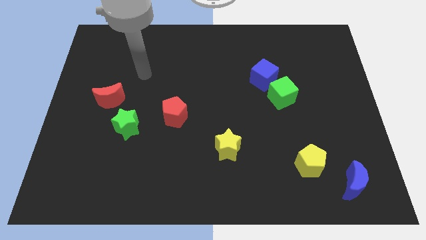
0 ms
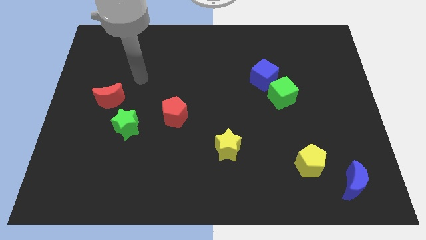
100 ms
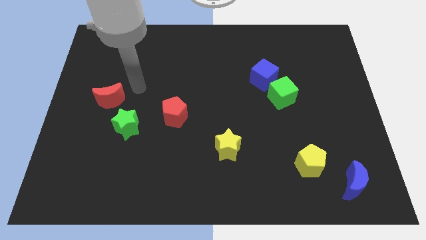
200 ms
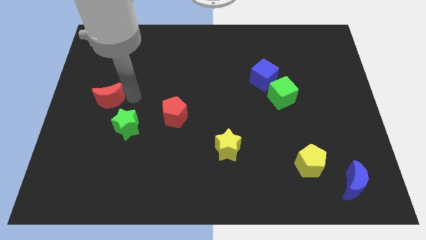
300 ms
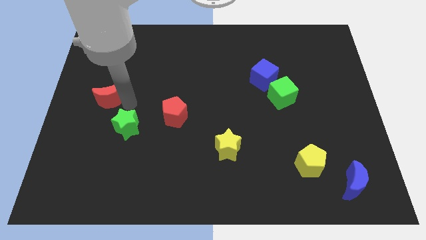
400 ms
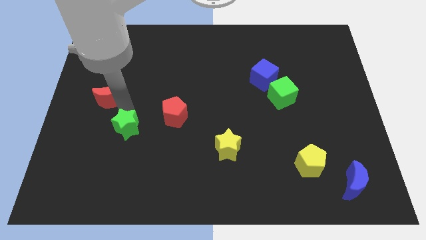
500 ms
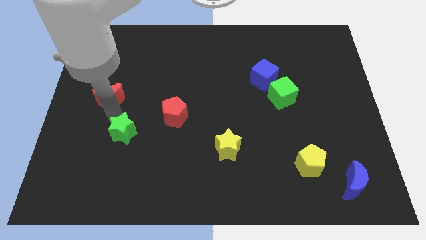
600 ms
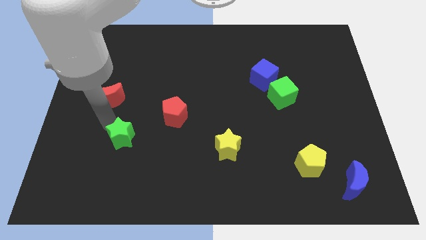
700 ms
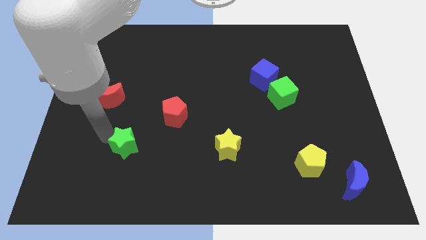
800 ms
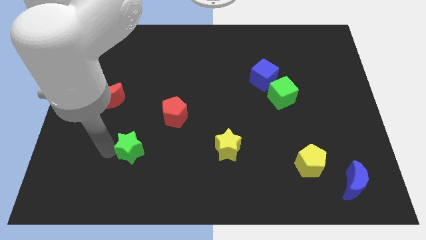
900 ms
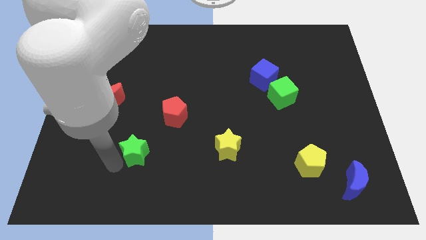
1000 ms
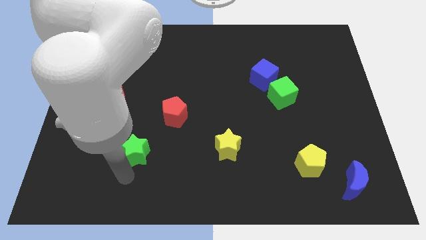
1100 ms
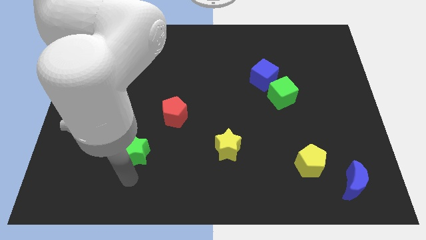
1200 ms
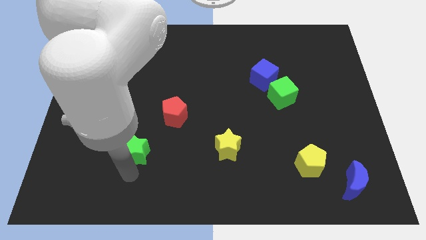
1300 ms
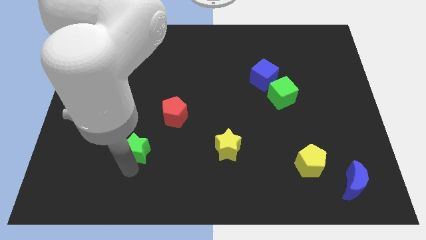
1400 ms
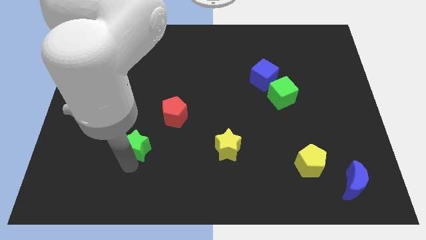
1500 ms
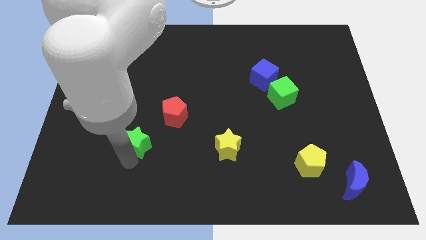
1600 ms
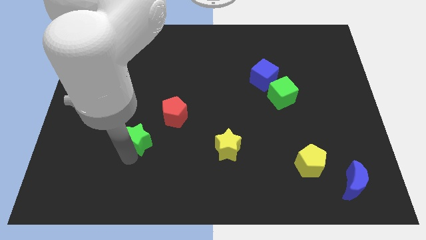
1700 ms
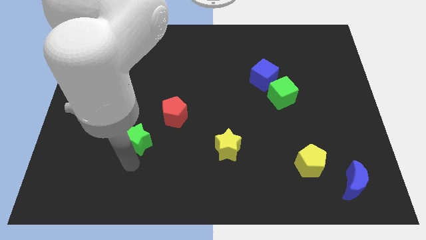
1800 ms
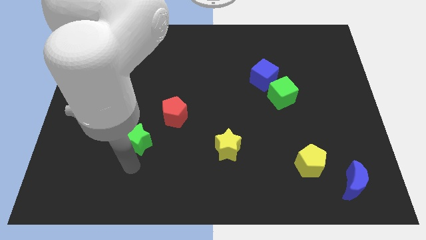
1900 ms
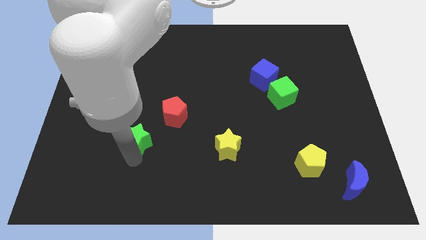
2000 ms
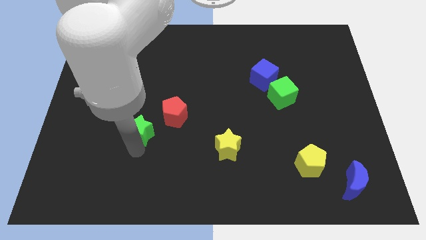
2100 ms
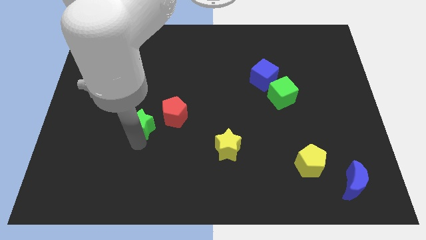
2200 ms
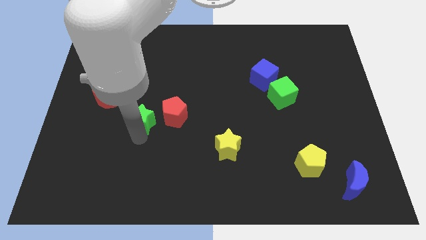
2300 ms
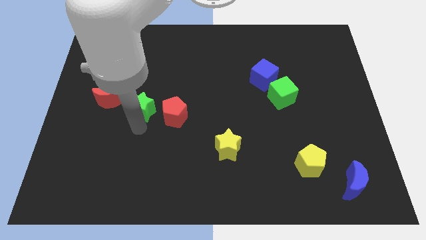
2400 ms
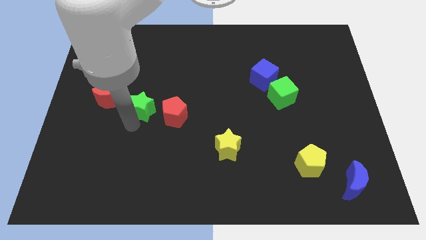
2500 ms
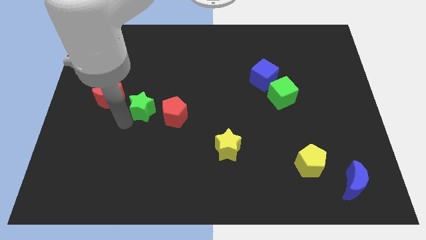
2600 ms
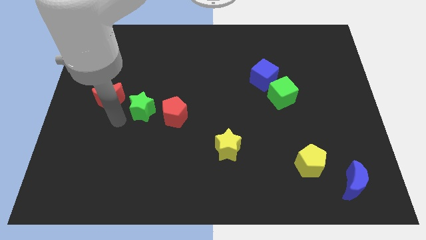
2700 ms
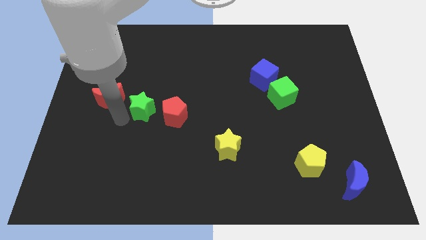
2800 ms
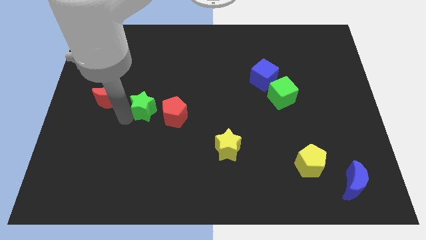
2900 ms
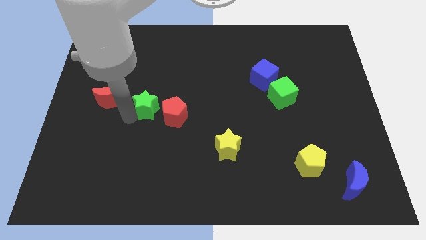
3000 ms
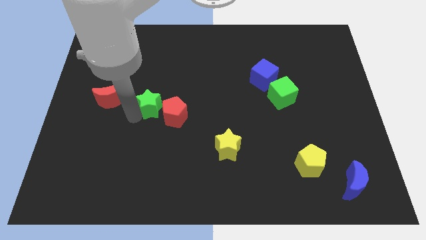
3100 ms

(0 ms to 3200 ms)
slightly move the green star up and then right

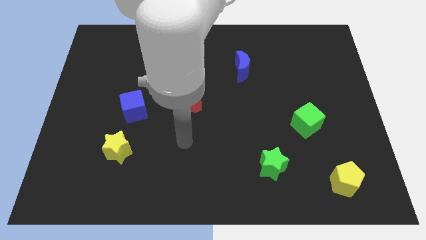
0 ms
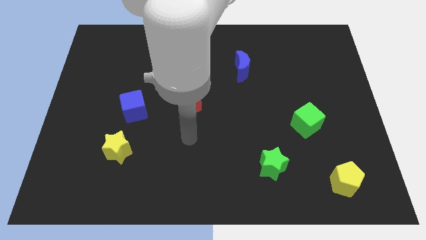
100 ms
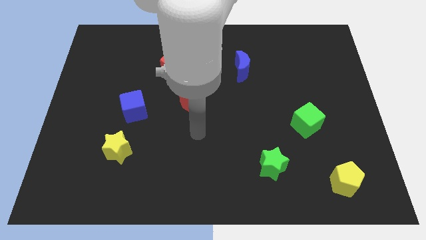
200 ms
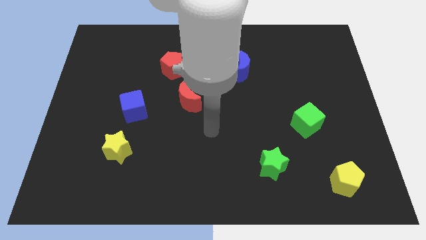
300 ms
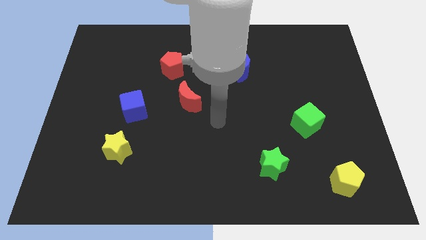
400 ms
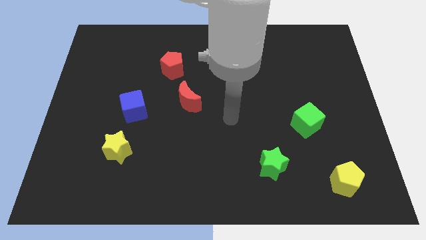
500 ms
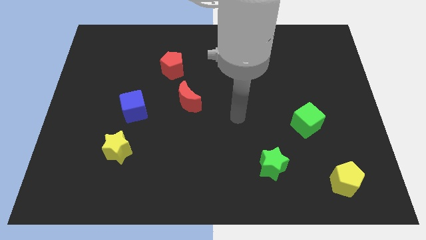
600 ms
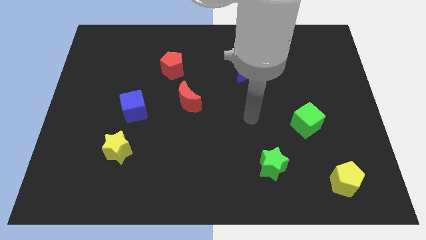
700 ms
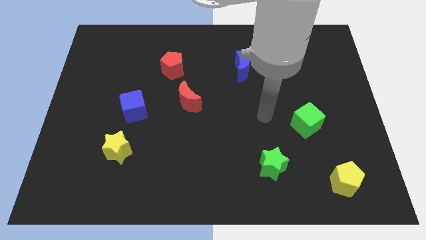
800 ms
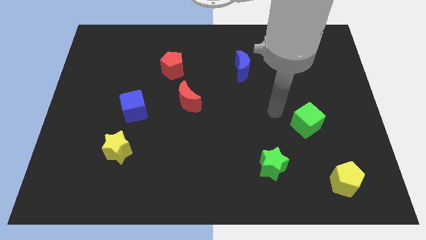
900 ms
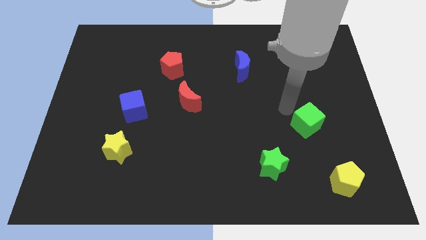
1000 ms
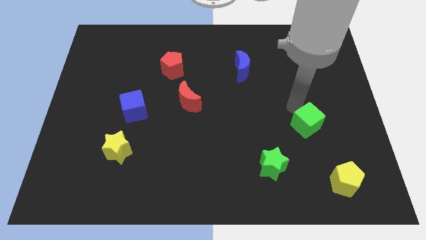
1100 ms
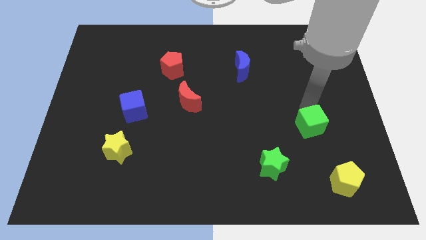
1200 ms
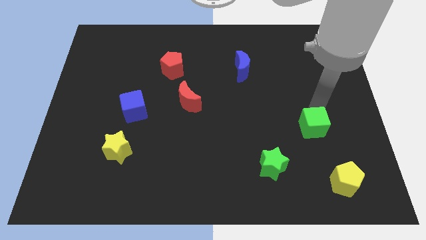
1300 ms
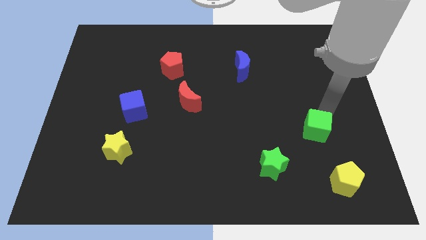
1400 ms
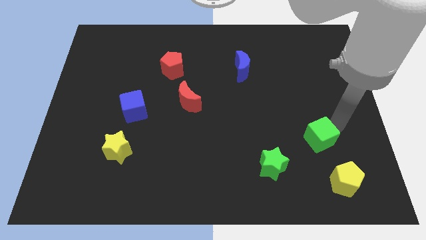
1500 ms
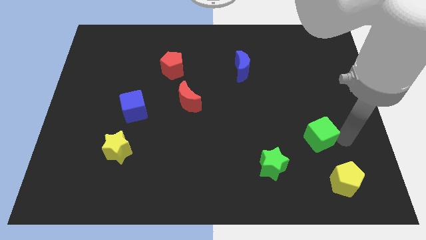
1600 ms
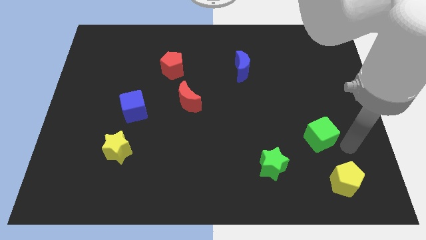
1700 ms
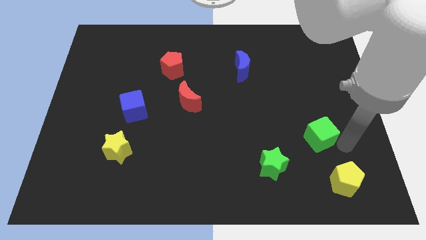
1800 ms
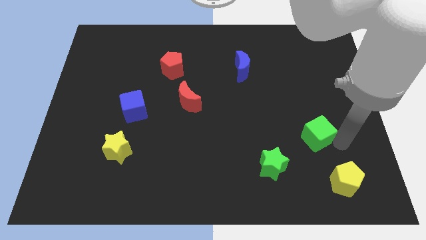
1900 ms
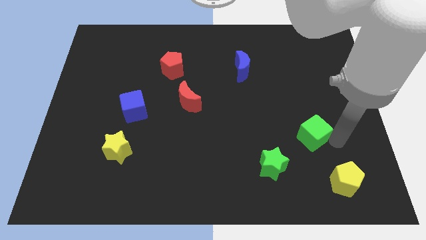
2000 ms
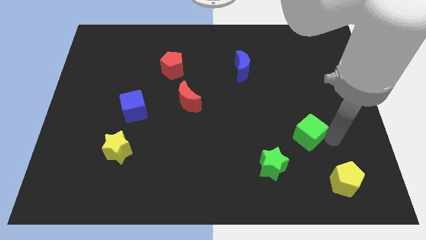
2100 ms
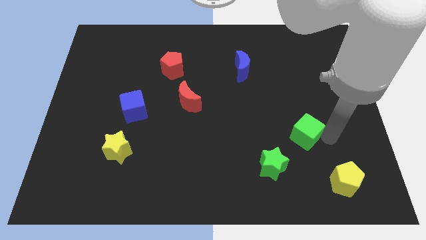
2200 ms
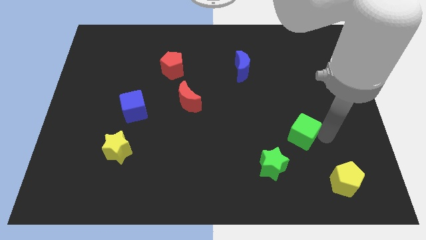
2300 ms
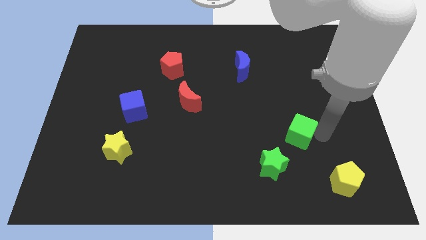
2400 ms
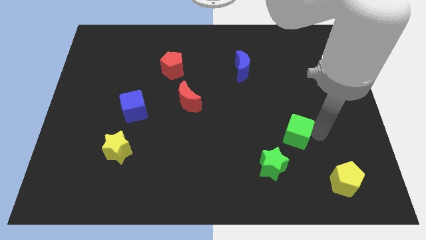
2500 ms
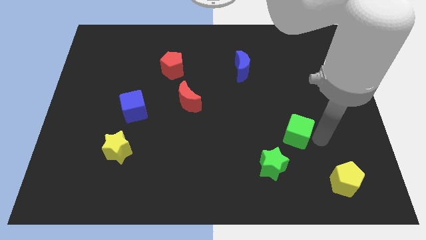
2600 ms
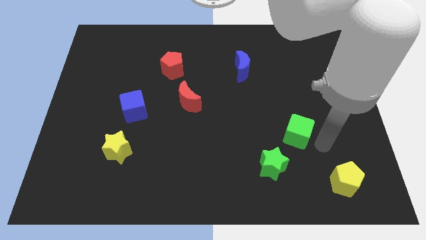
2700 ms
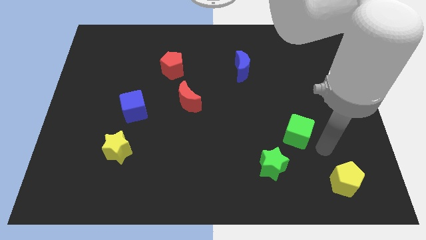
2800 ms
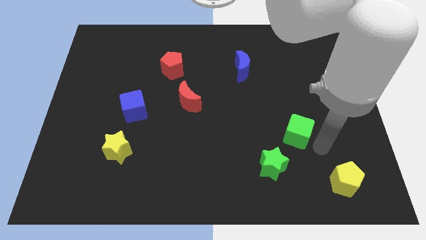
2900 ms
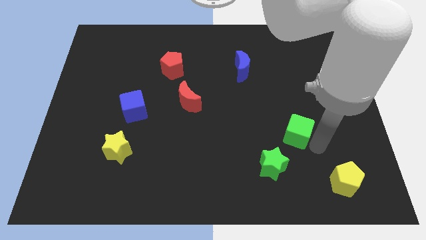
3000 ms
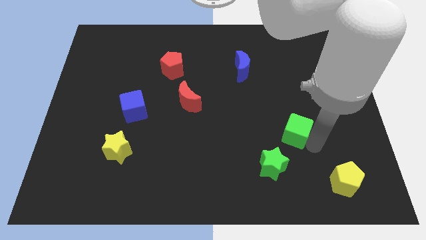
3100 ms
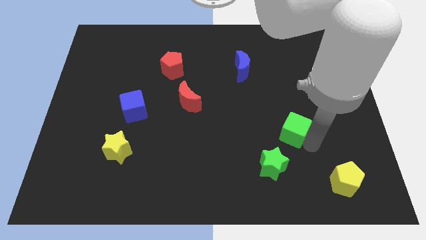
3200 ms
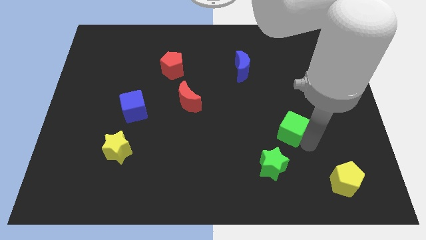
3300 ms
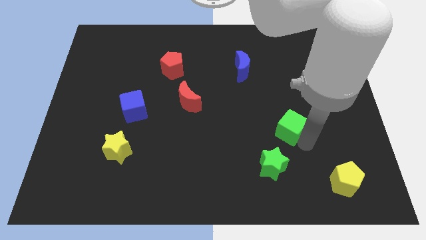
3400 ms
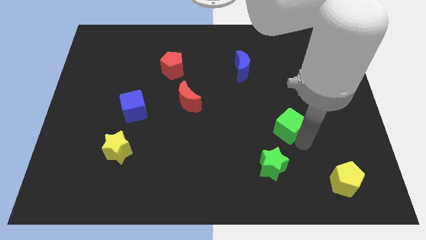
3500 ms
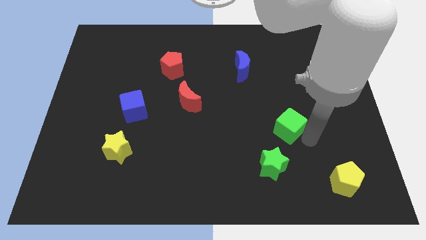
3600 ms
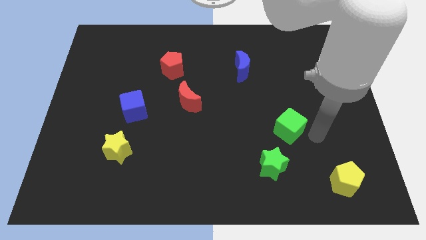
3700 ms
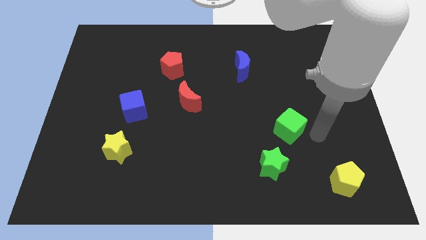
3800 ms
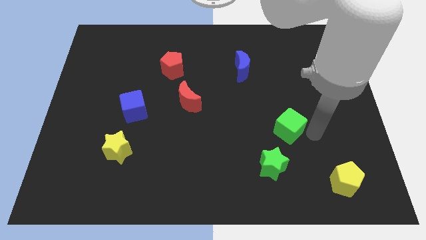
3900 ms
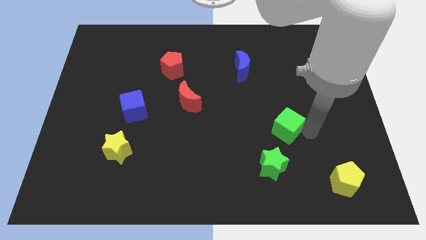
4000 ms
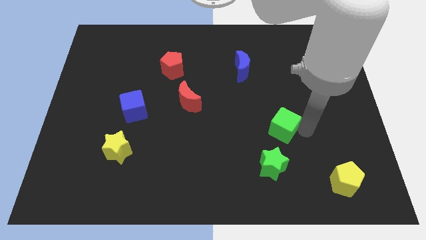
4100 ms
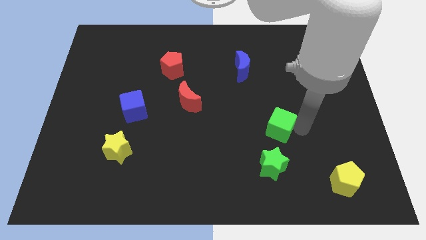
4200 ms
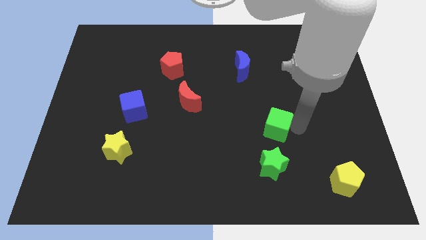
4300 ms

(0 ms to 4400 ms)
push the green cube a little bit to the left

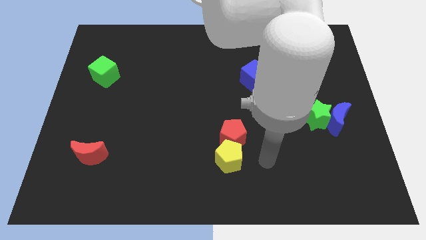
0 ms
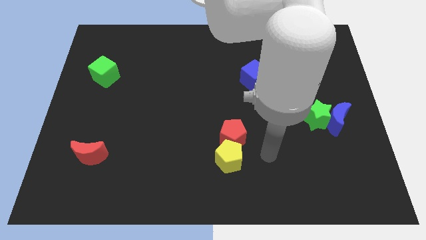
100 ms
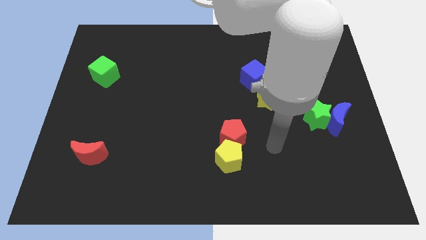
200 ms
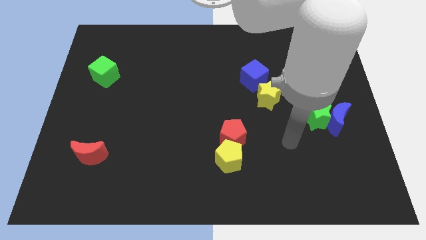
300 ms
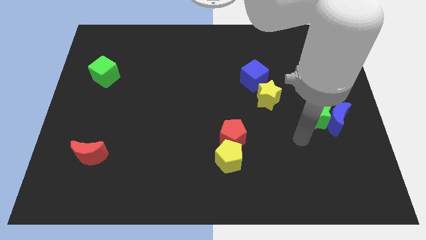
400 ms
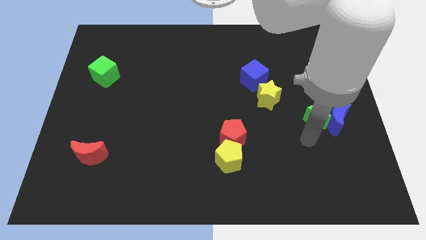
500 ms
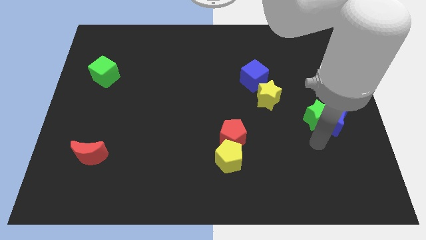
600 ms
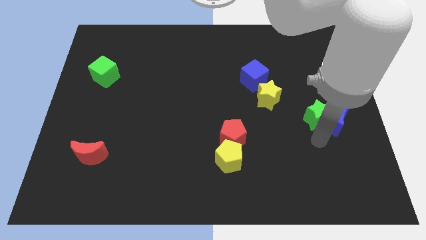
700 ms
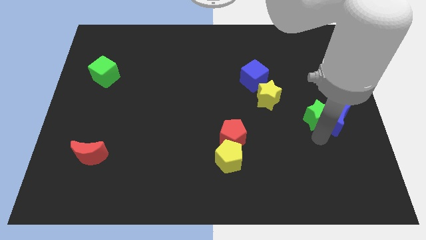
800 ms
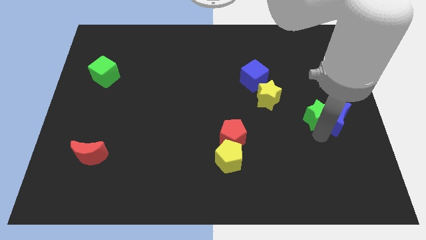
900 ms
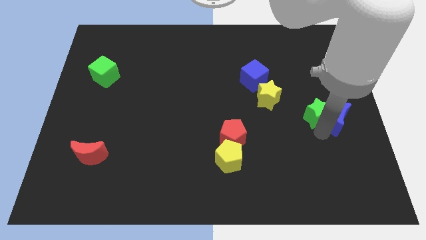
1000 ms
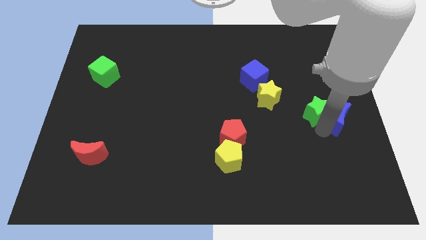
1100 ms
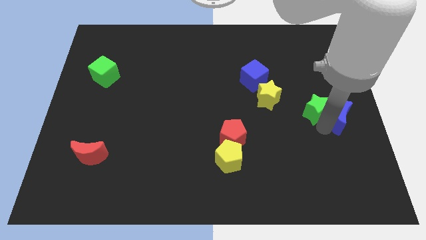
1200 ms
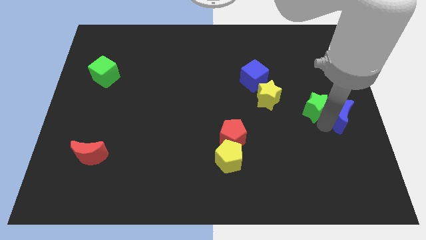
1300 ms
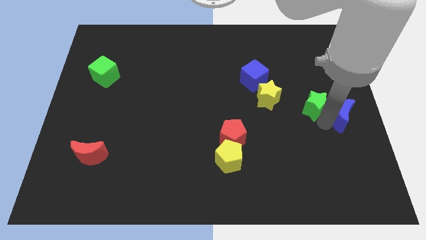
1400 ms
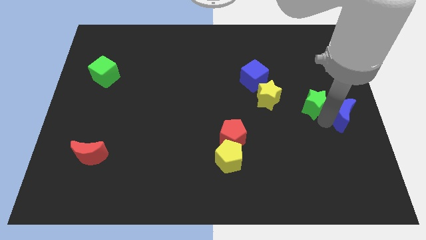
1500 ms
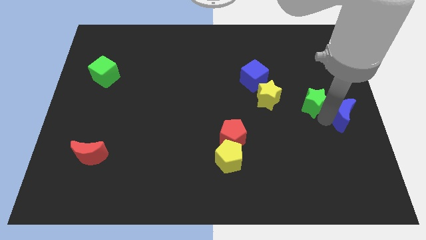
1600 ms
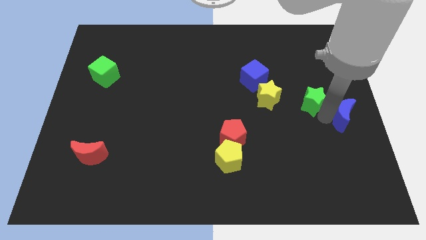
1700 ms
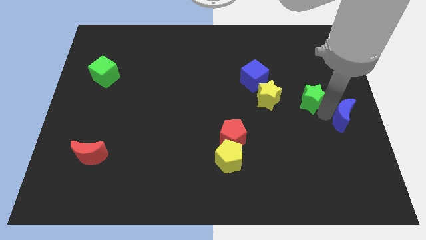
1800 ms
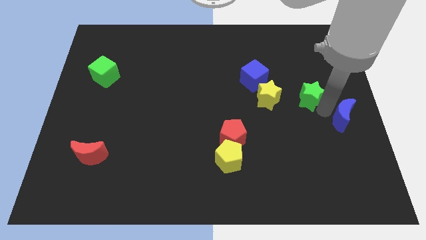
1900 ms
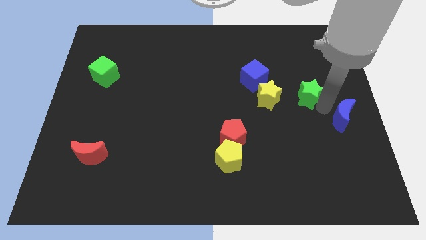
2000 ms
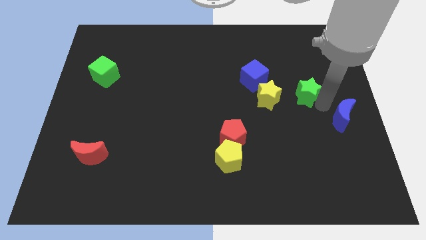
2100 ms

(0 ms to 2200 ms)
slide the green star somewhat up
